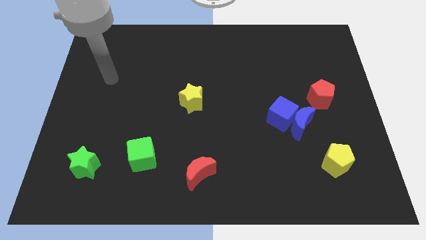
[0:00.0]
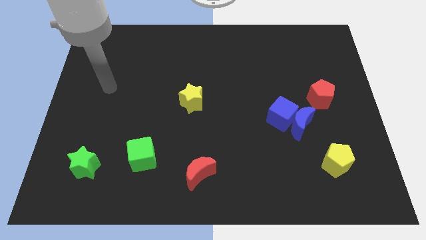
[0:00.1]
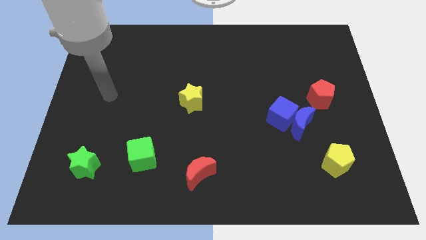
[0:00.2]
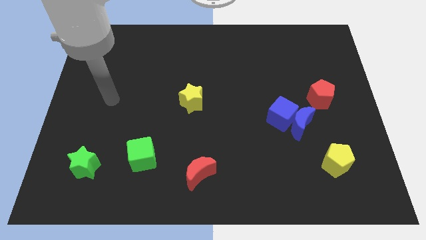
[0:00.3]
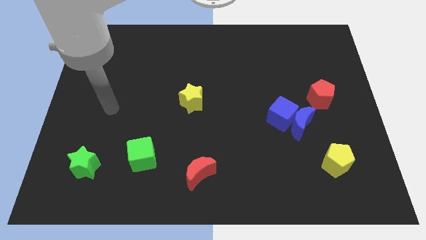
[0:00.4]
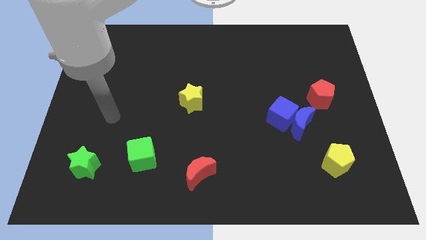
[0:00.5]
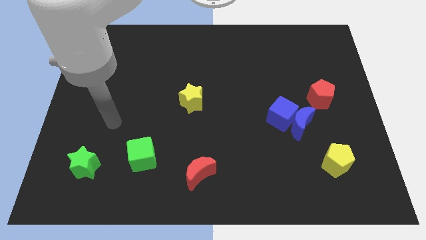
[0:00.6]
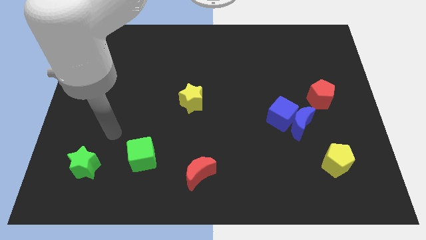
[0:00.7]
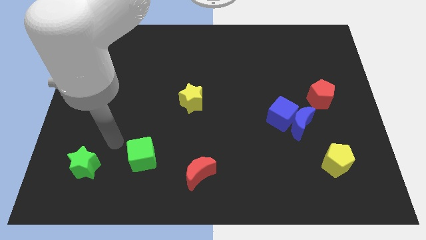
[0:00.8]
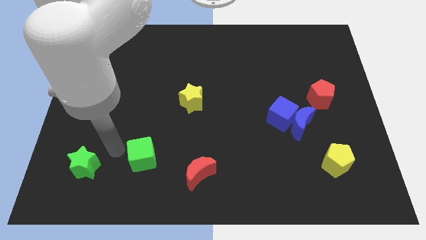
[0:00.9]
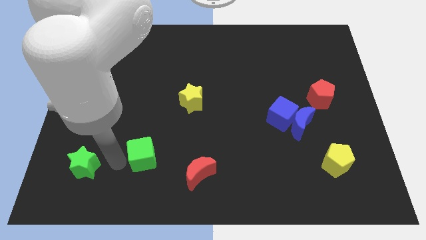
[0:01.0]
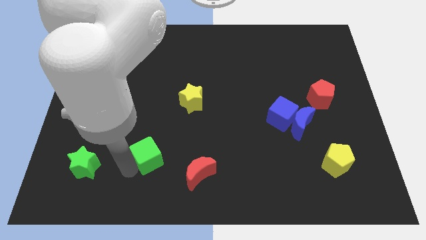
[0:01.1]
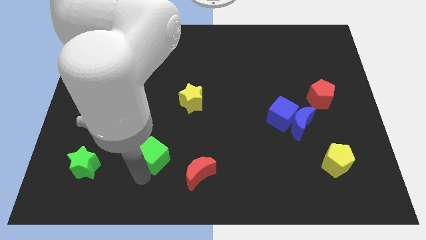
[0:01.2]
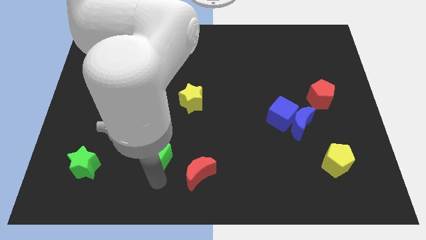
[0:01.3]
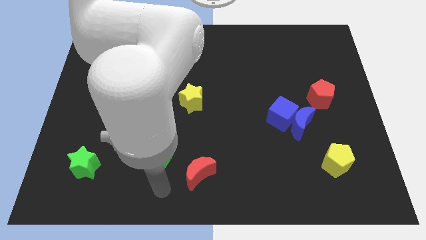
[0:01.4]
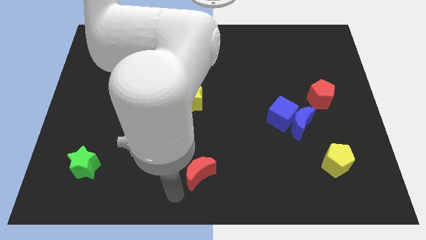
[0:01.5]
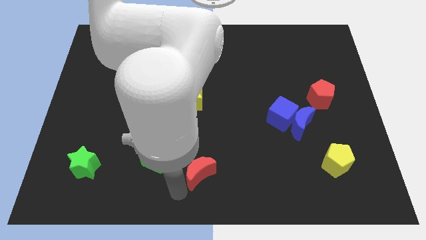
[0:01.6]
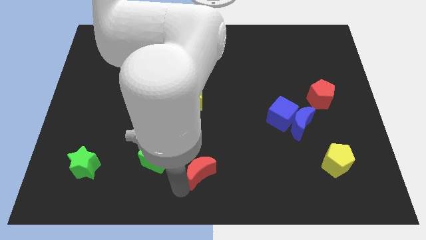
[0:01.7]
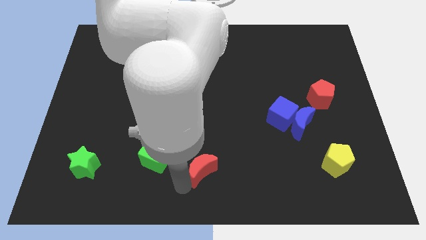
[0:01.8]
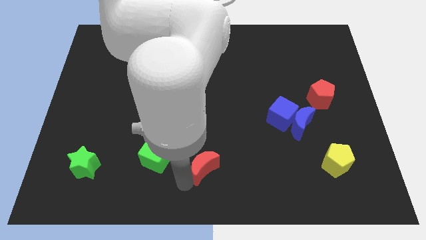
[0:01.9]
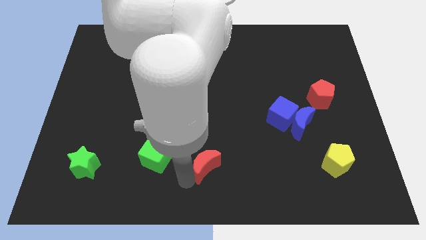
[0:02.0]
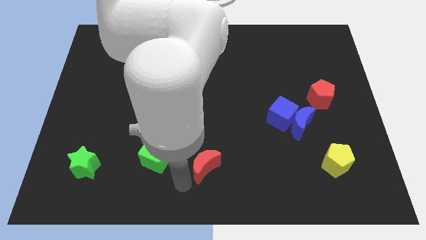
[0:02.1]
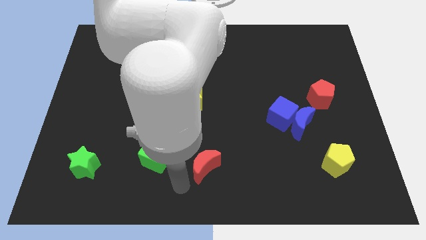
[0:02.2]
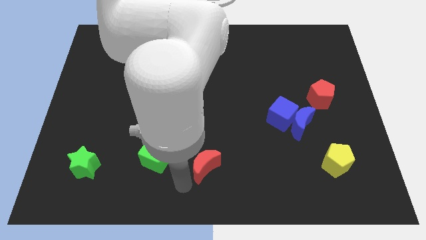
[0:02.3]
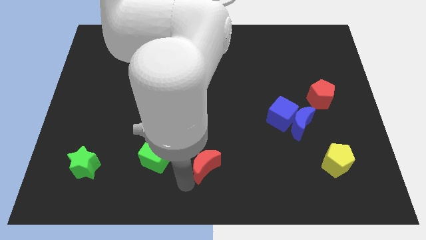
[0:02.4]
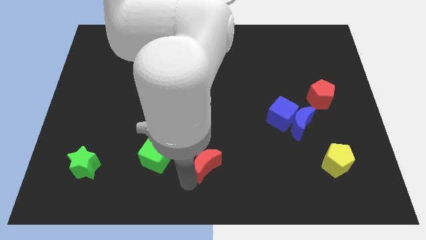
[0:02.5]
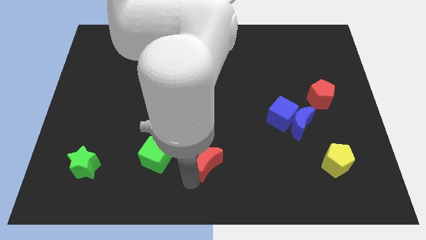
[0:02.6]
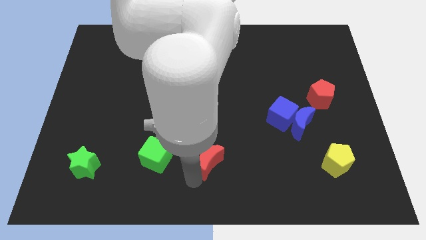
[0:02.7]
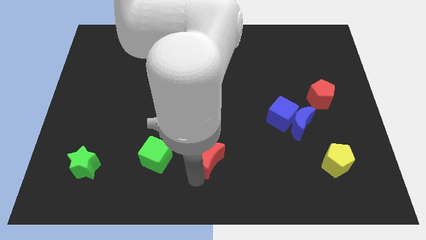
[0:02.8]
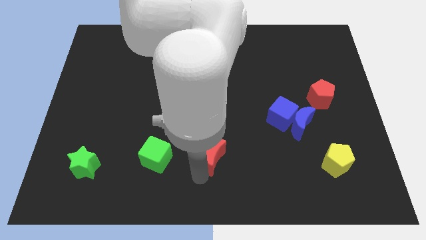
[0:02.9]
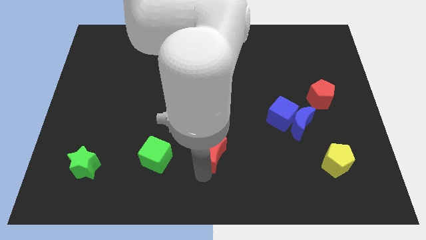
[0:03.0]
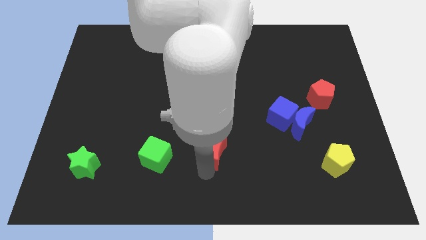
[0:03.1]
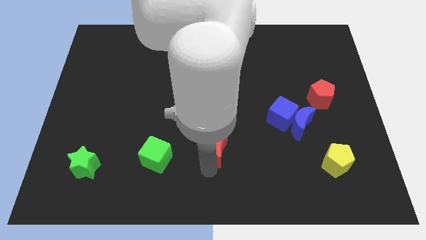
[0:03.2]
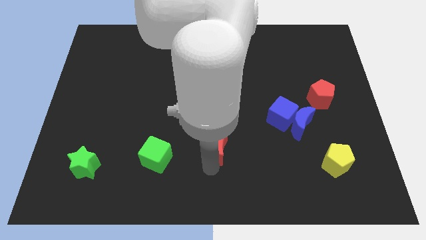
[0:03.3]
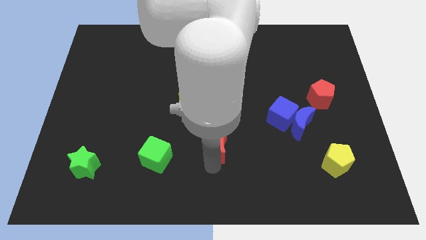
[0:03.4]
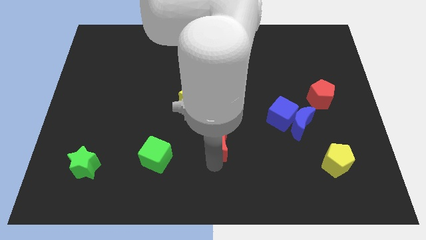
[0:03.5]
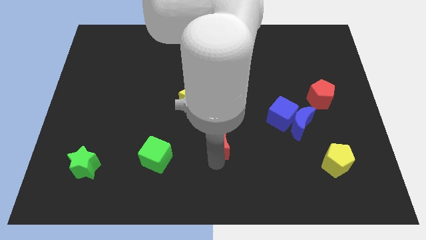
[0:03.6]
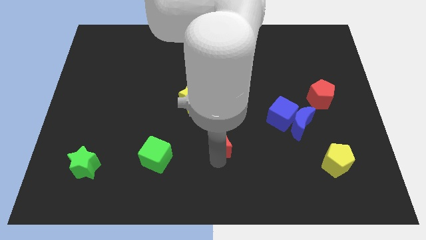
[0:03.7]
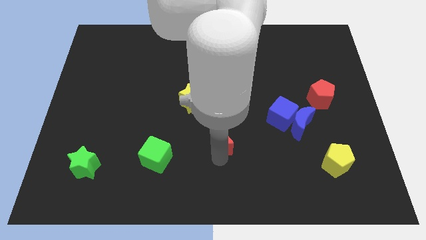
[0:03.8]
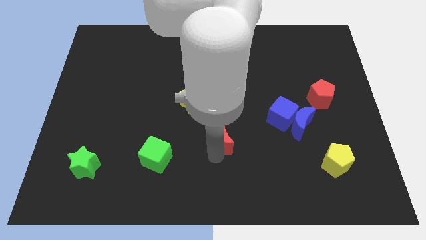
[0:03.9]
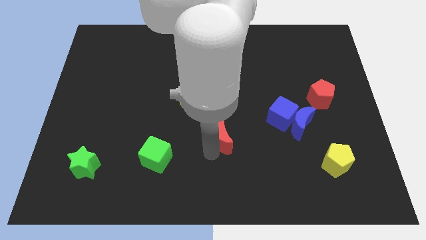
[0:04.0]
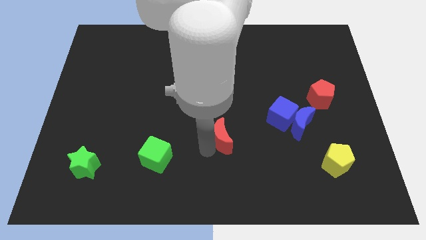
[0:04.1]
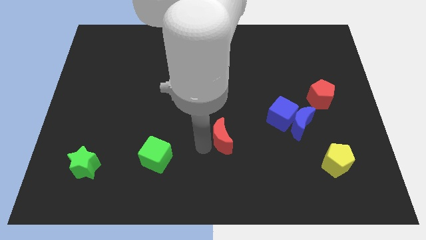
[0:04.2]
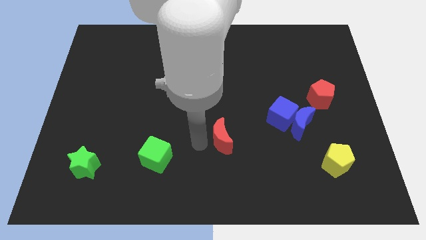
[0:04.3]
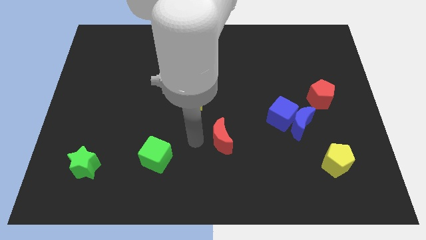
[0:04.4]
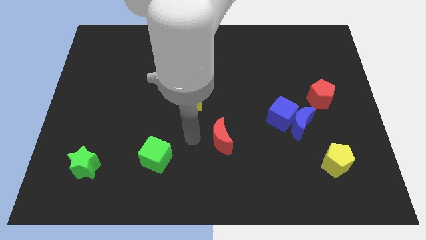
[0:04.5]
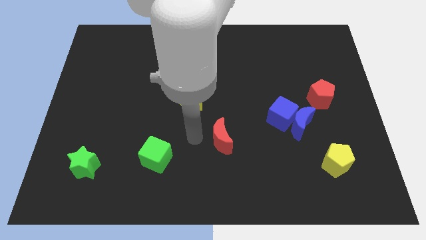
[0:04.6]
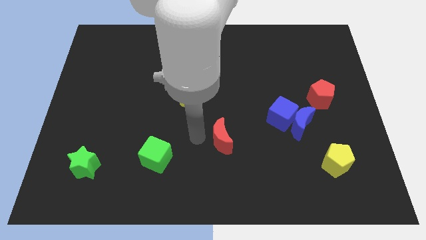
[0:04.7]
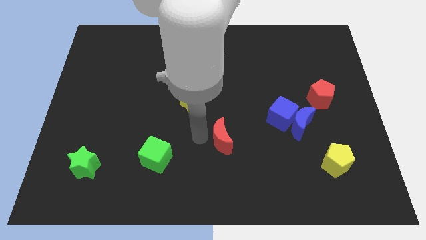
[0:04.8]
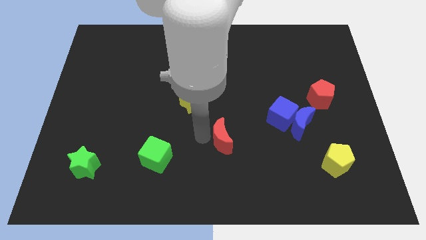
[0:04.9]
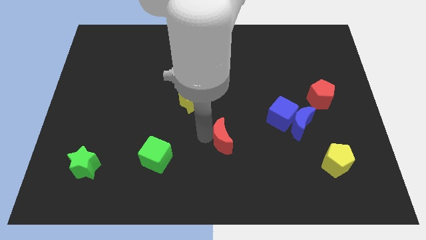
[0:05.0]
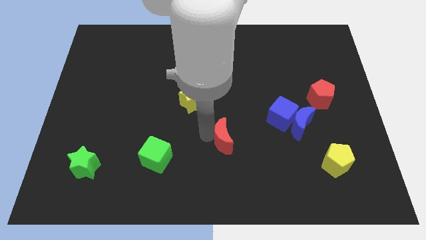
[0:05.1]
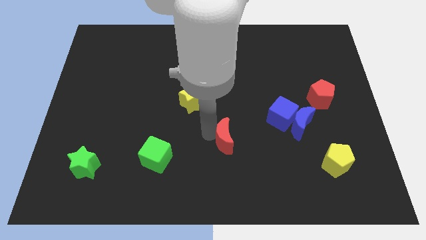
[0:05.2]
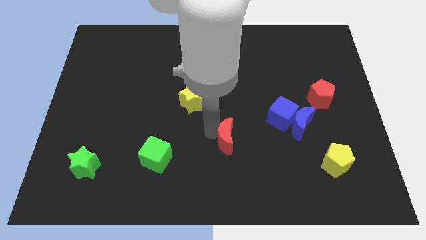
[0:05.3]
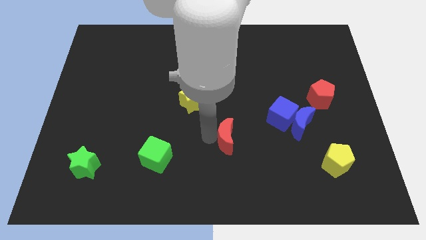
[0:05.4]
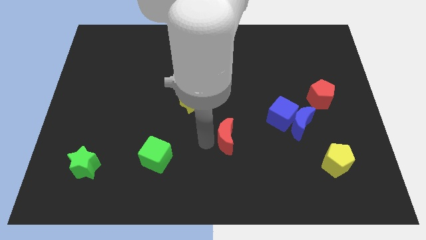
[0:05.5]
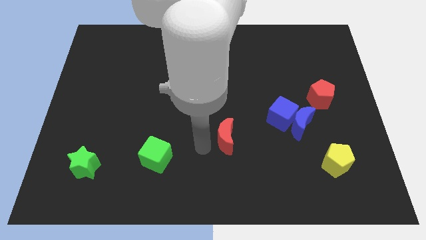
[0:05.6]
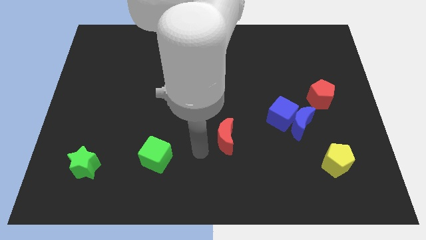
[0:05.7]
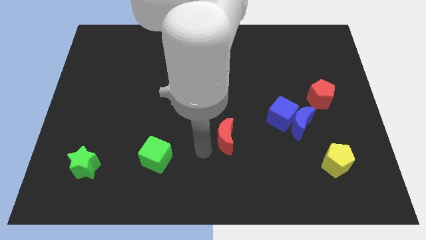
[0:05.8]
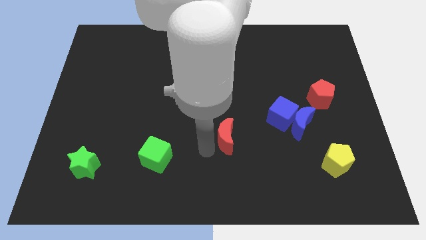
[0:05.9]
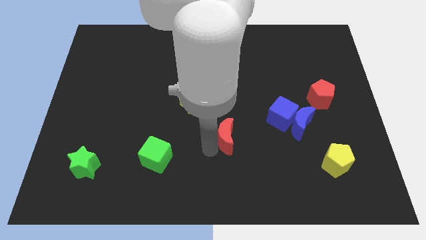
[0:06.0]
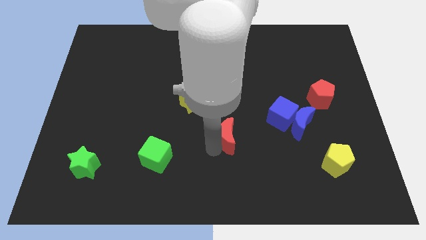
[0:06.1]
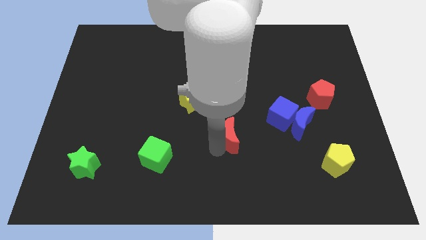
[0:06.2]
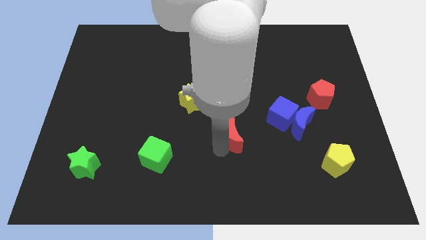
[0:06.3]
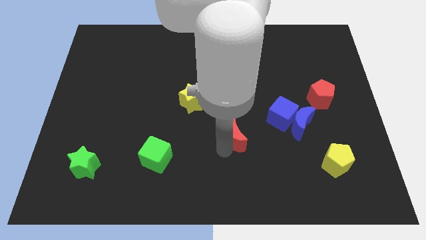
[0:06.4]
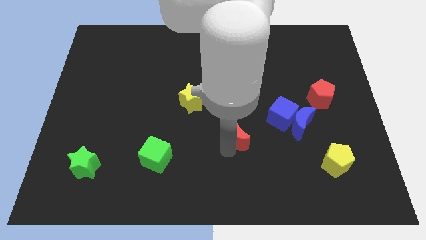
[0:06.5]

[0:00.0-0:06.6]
slide the red moon just left of the blue moon

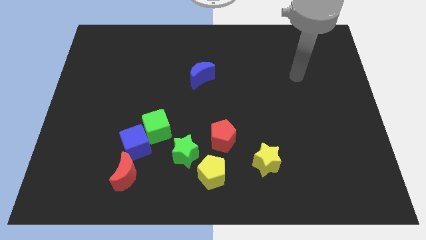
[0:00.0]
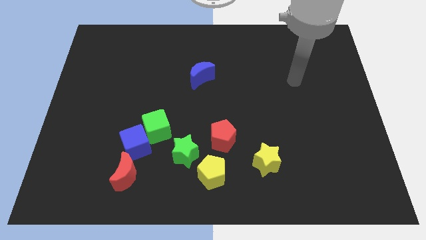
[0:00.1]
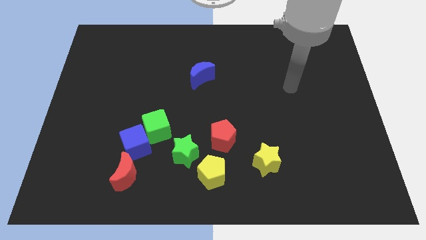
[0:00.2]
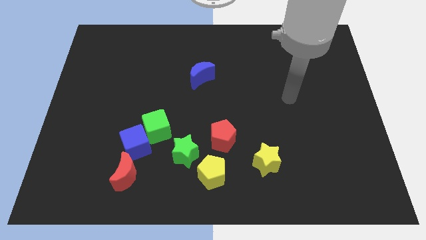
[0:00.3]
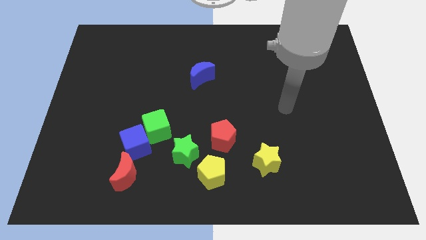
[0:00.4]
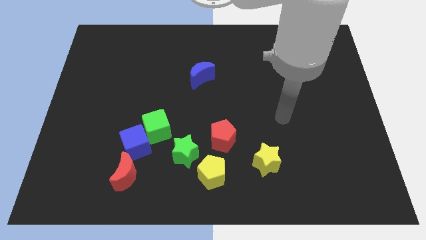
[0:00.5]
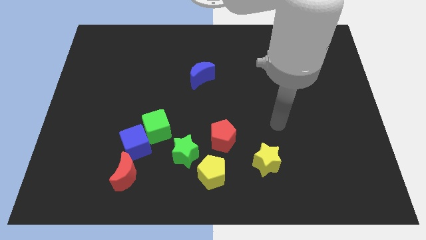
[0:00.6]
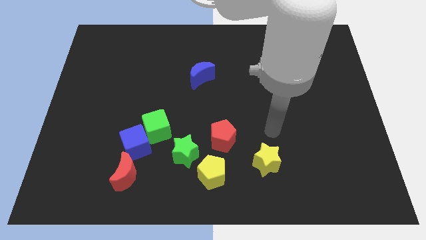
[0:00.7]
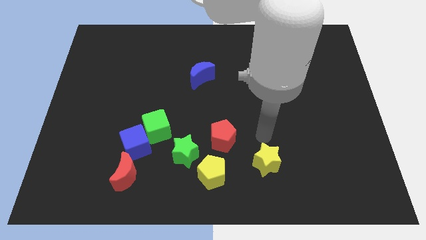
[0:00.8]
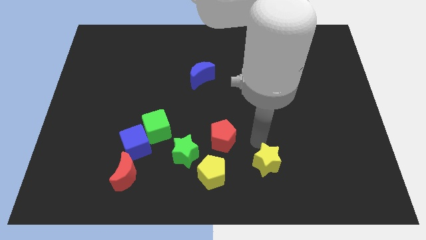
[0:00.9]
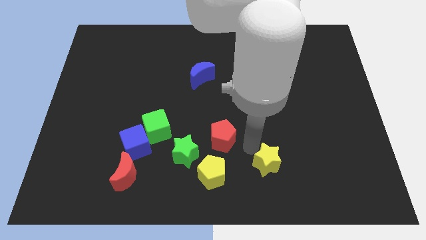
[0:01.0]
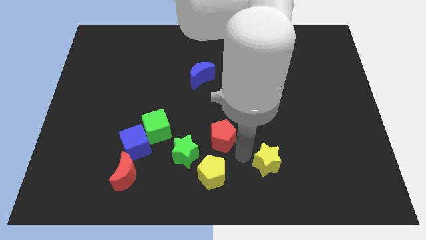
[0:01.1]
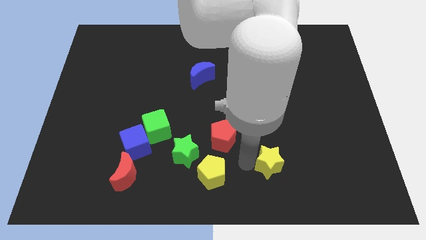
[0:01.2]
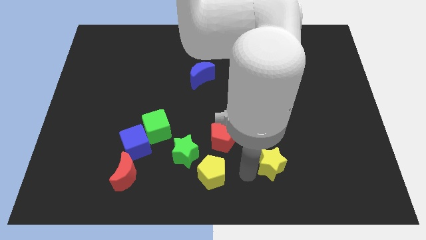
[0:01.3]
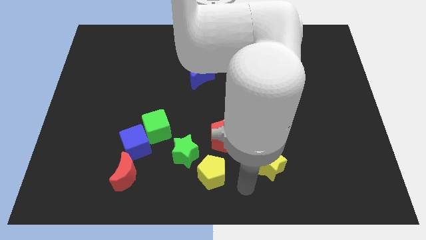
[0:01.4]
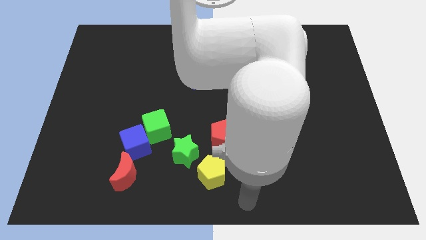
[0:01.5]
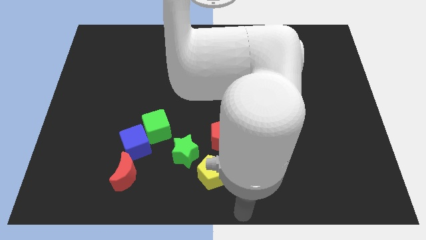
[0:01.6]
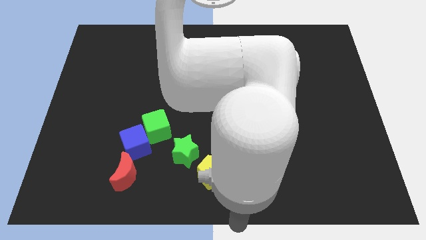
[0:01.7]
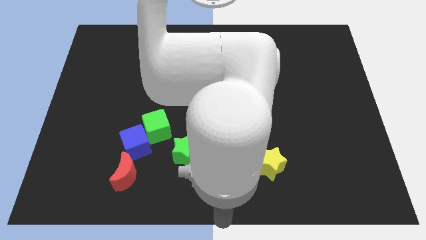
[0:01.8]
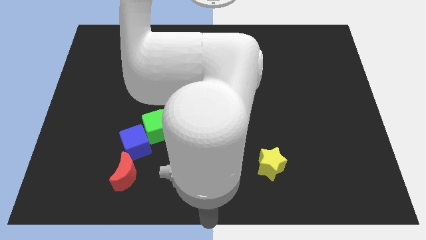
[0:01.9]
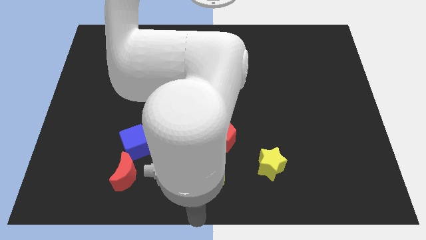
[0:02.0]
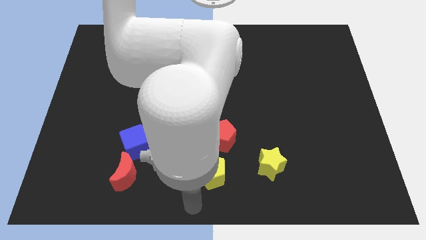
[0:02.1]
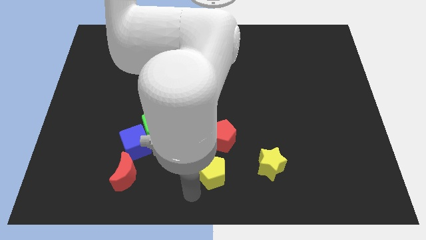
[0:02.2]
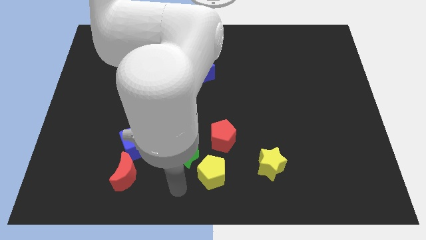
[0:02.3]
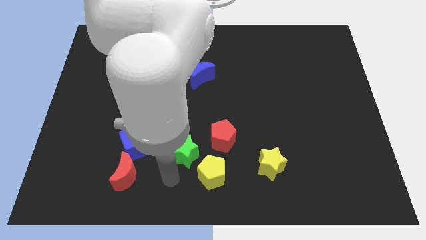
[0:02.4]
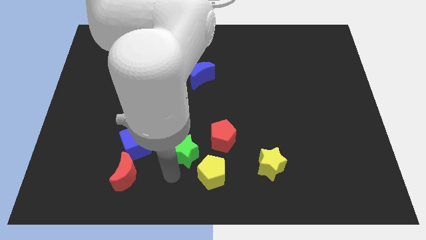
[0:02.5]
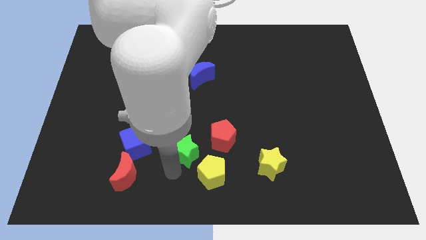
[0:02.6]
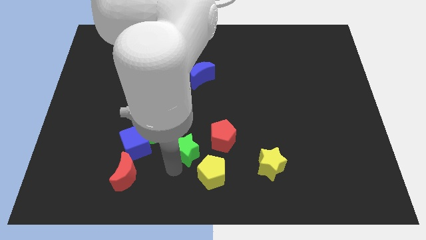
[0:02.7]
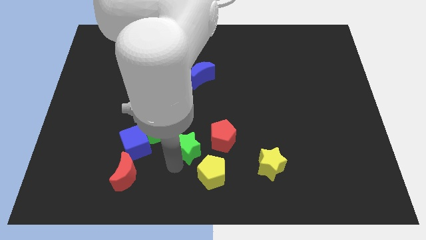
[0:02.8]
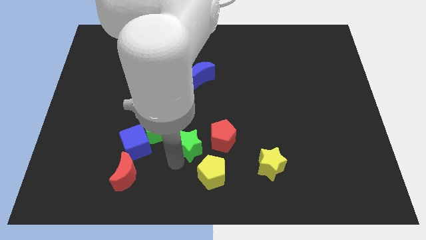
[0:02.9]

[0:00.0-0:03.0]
put the green star right of the green cube
